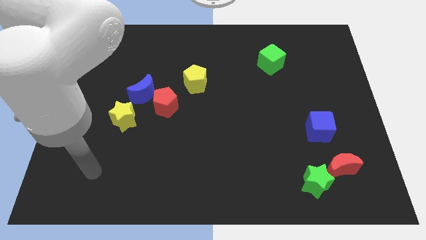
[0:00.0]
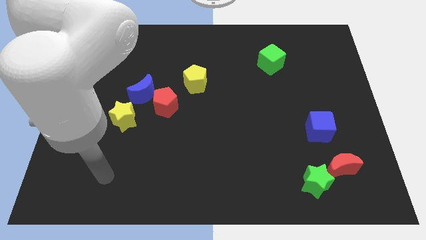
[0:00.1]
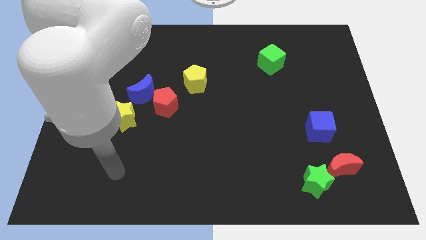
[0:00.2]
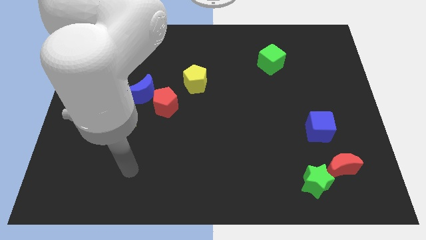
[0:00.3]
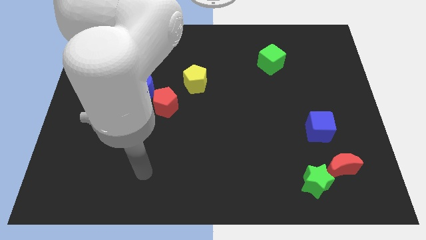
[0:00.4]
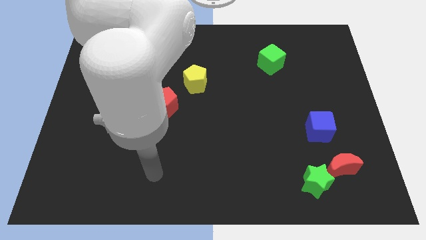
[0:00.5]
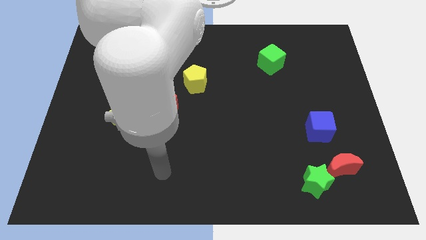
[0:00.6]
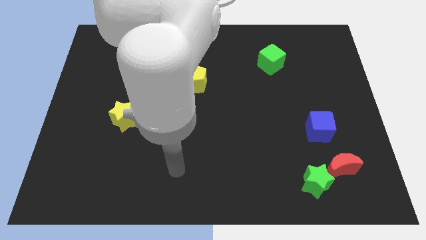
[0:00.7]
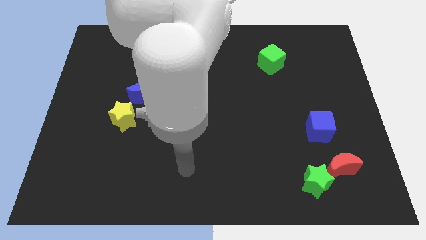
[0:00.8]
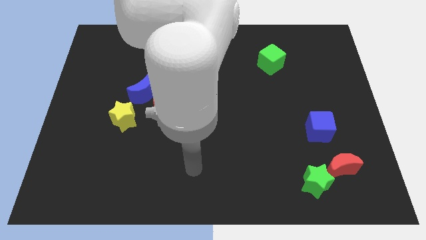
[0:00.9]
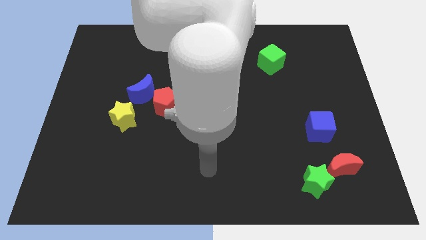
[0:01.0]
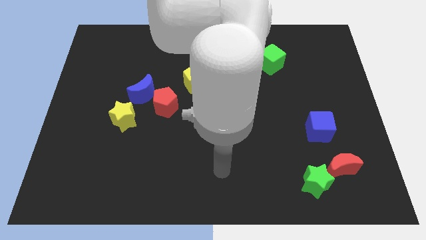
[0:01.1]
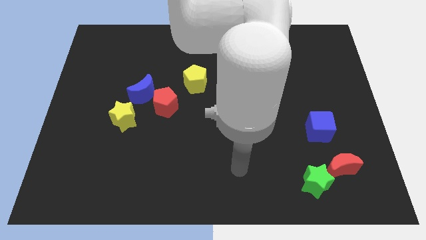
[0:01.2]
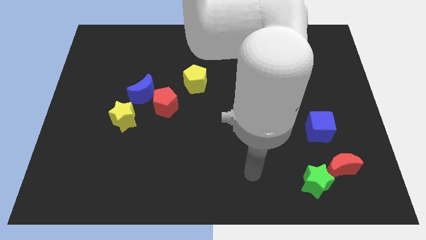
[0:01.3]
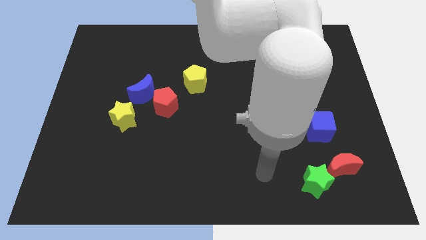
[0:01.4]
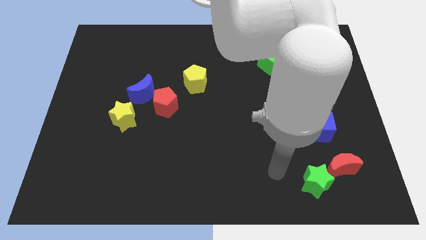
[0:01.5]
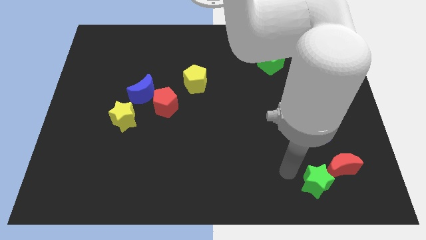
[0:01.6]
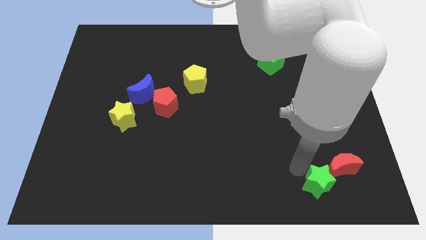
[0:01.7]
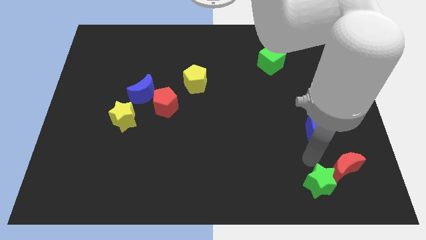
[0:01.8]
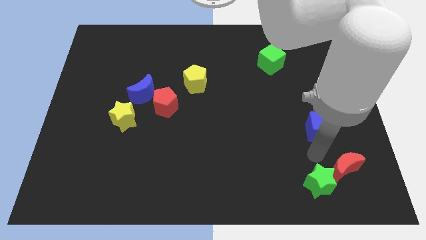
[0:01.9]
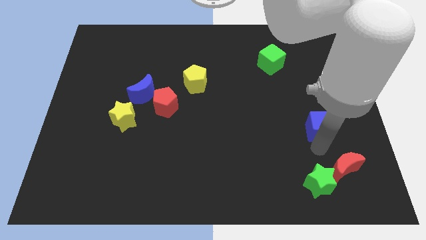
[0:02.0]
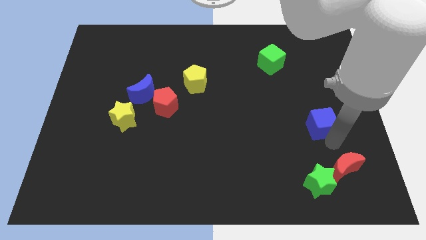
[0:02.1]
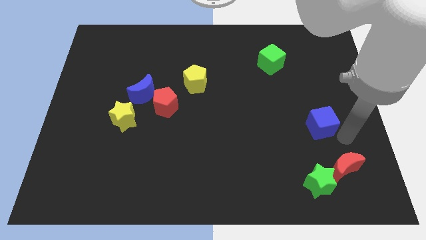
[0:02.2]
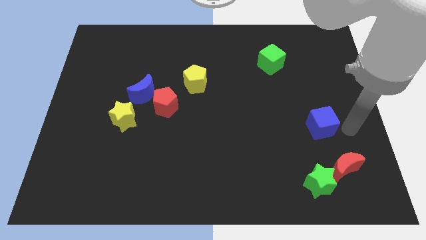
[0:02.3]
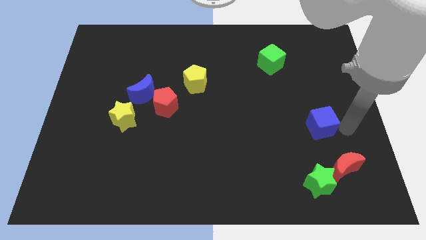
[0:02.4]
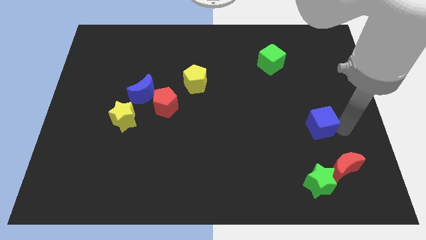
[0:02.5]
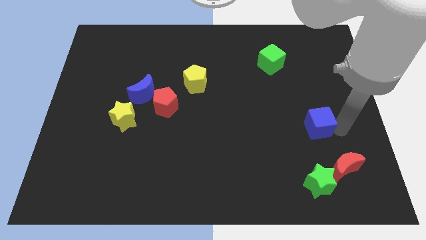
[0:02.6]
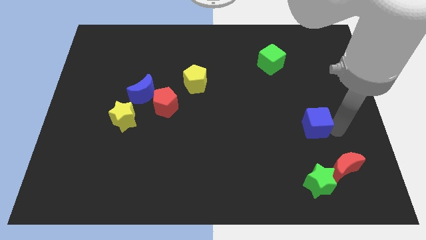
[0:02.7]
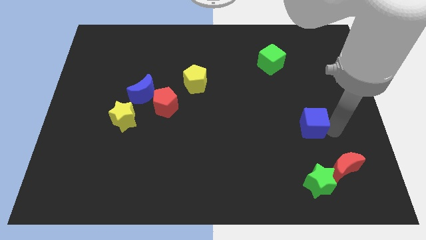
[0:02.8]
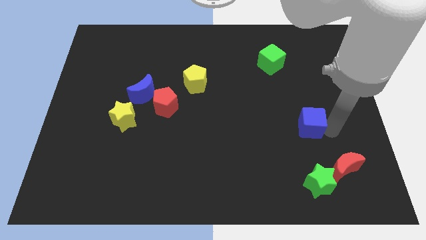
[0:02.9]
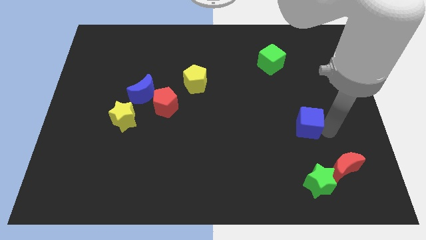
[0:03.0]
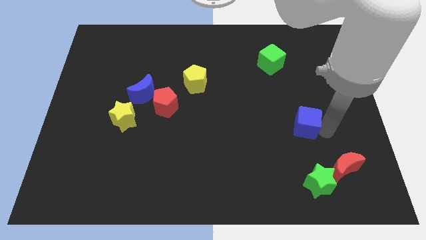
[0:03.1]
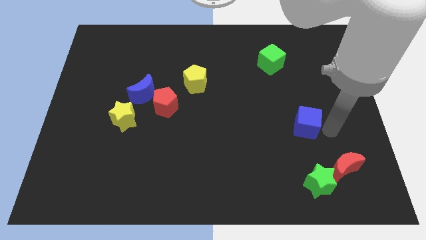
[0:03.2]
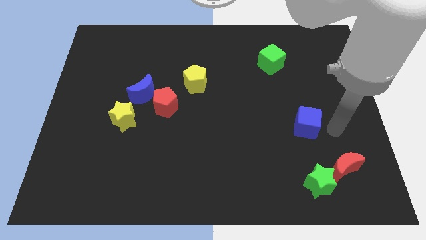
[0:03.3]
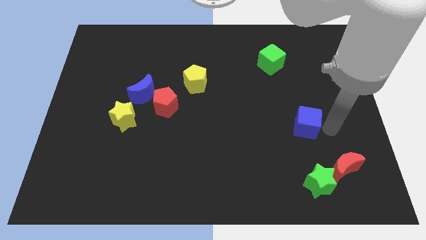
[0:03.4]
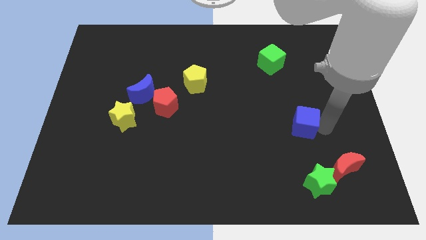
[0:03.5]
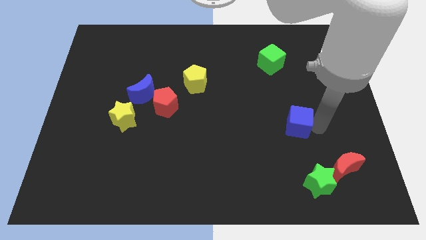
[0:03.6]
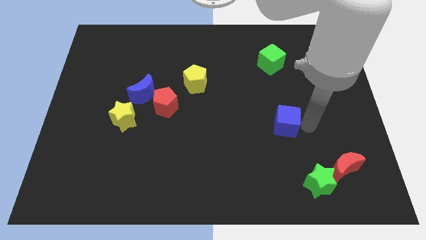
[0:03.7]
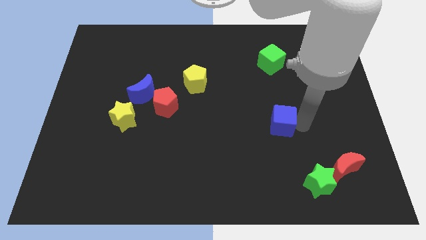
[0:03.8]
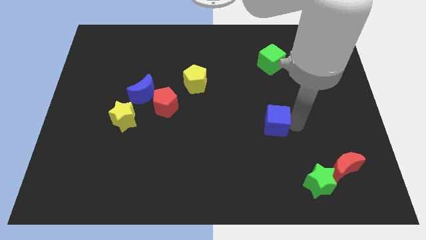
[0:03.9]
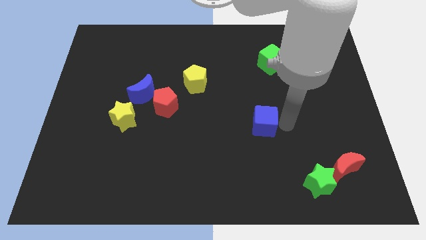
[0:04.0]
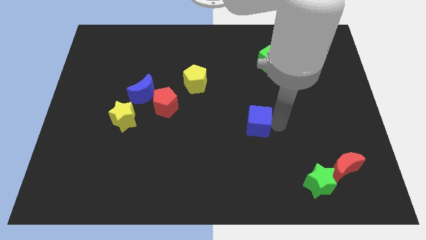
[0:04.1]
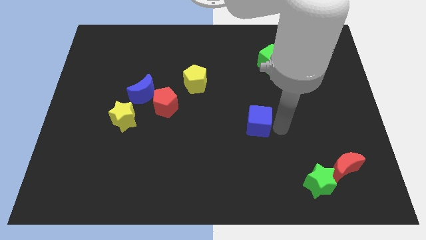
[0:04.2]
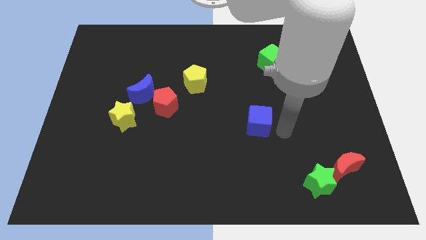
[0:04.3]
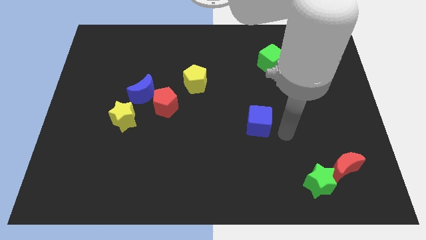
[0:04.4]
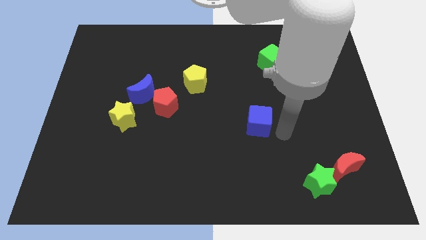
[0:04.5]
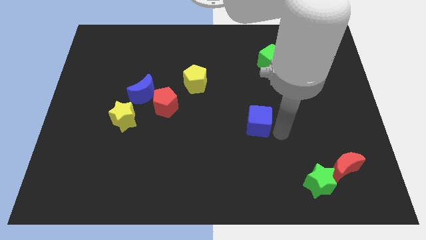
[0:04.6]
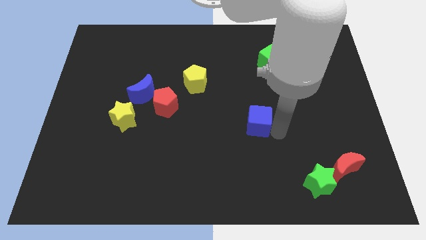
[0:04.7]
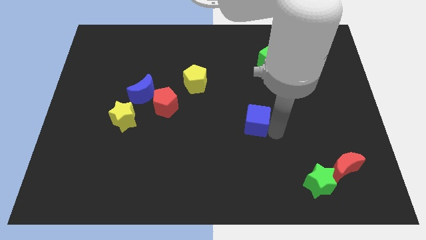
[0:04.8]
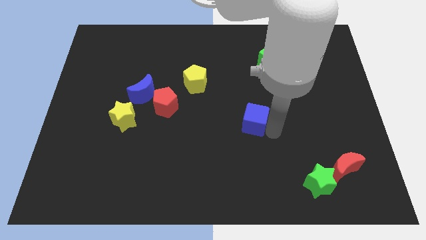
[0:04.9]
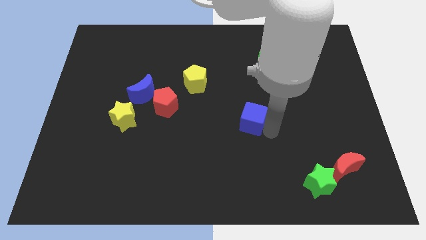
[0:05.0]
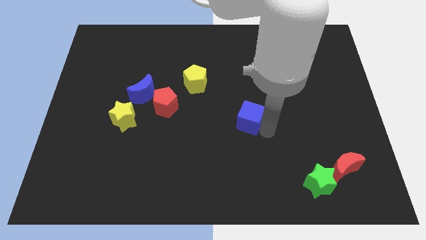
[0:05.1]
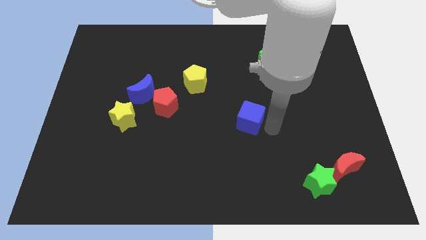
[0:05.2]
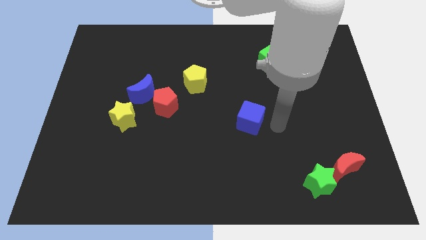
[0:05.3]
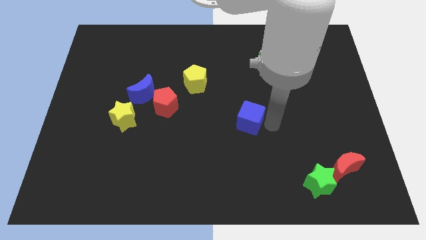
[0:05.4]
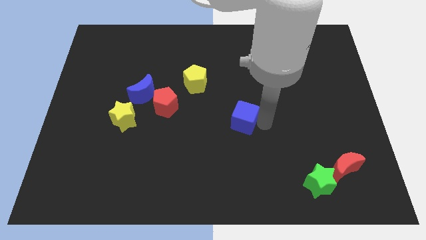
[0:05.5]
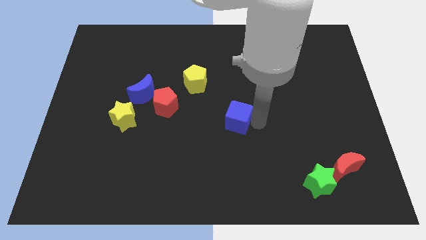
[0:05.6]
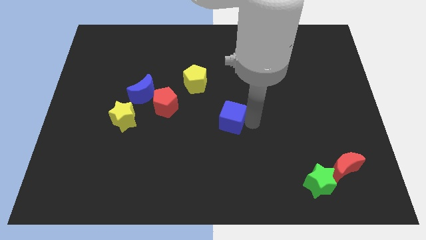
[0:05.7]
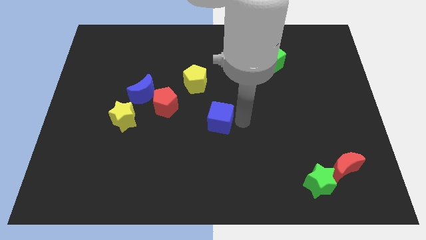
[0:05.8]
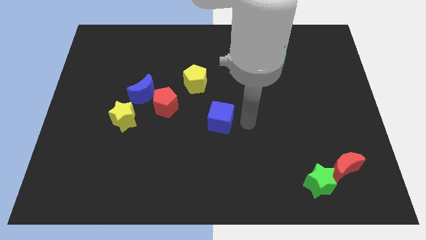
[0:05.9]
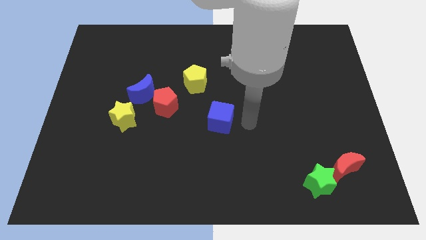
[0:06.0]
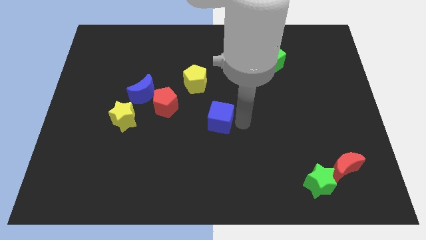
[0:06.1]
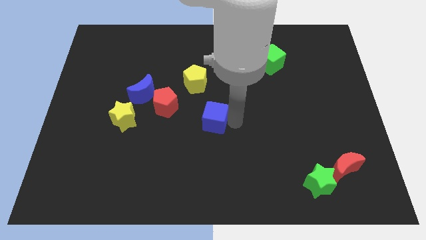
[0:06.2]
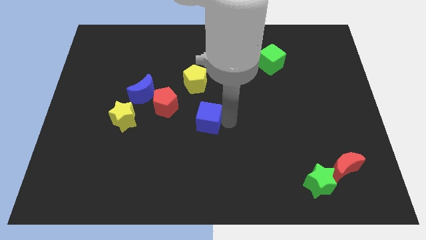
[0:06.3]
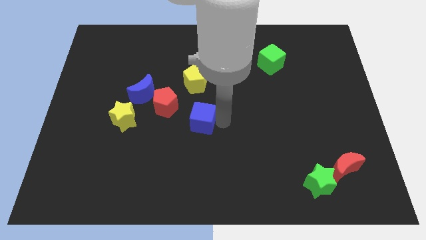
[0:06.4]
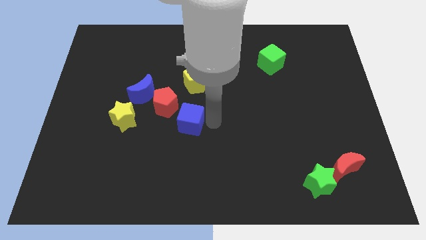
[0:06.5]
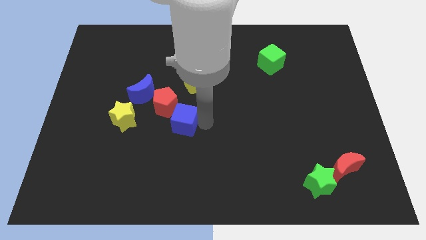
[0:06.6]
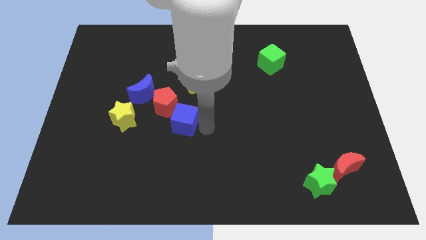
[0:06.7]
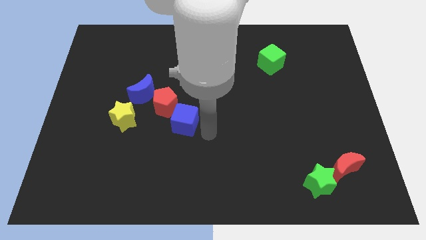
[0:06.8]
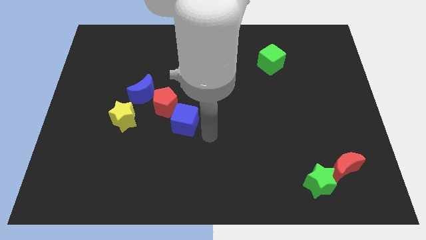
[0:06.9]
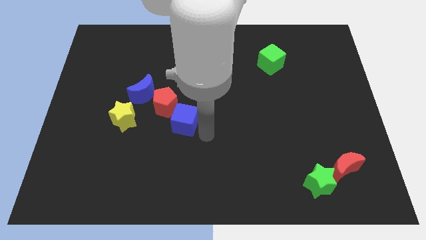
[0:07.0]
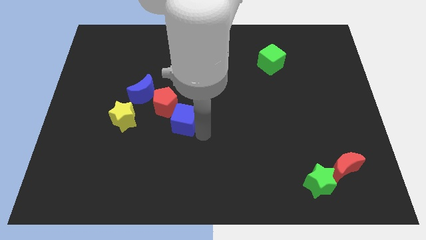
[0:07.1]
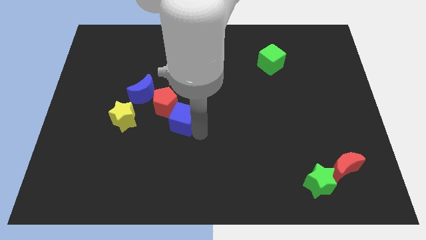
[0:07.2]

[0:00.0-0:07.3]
slide the blue cube to the bottom right of the blue moon
